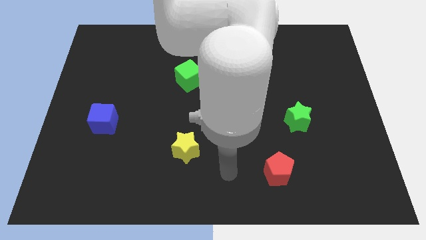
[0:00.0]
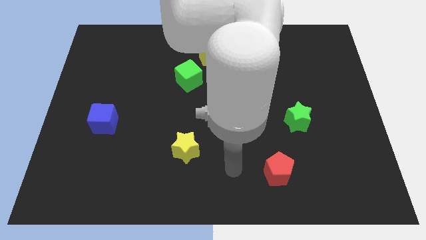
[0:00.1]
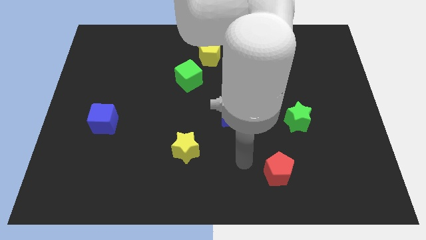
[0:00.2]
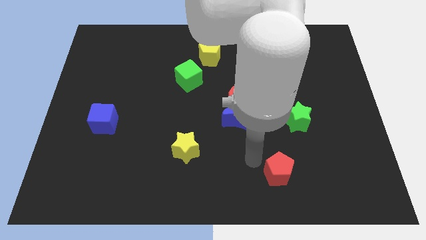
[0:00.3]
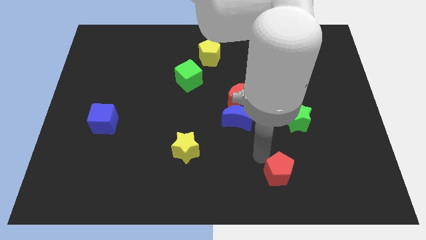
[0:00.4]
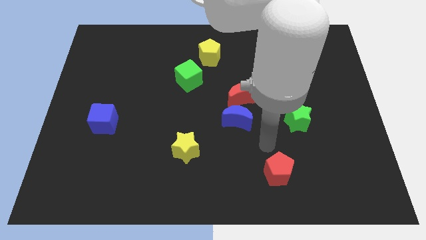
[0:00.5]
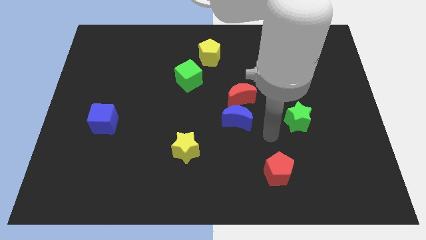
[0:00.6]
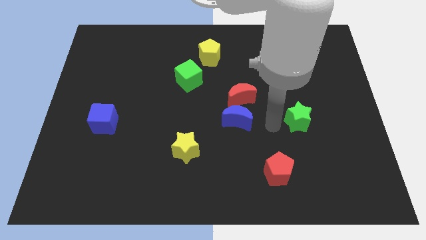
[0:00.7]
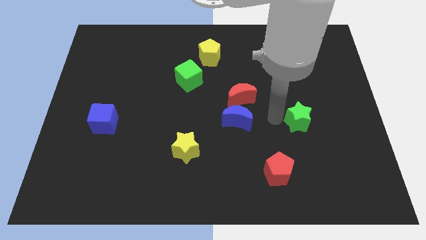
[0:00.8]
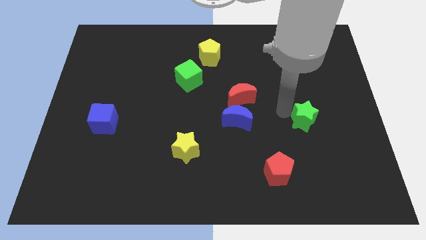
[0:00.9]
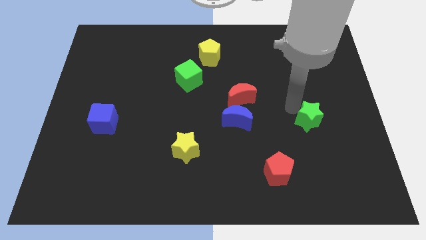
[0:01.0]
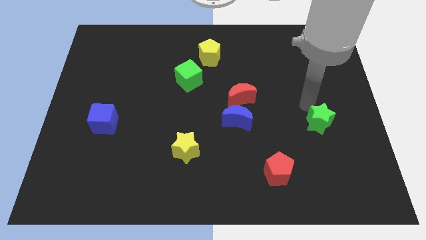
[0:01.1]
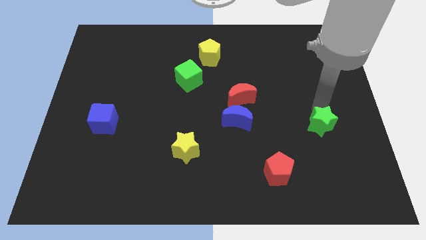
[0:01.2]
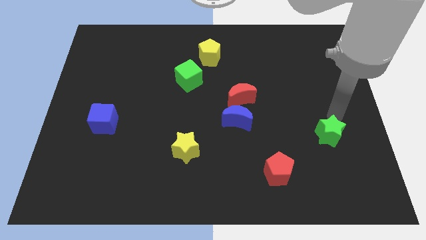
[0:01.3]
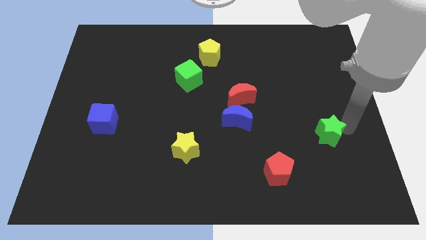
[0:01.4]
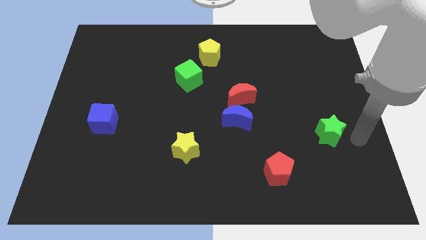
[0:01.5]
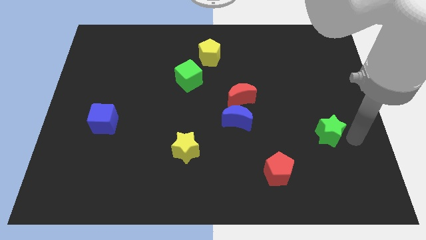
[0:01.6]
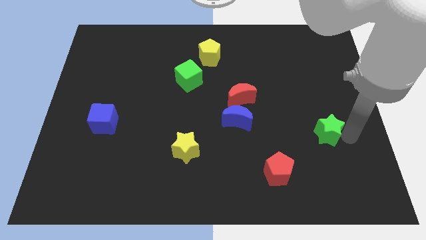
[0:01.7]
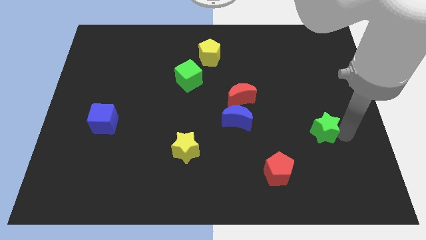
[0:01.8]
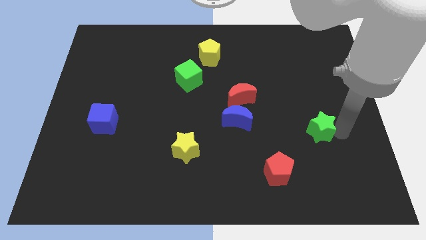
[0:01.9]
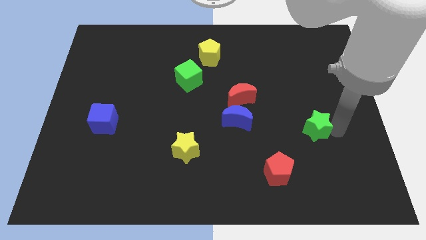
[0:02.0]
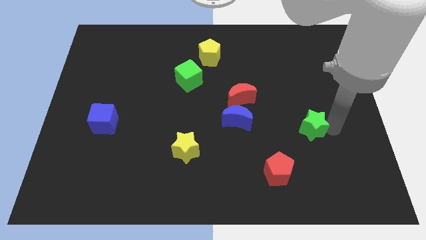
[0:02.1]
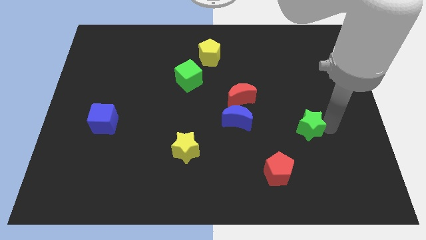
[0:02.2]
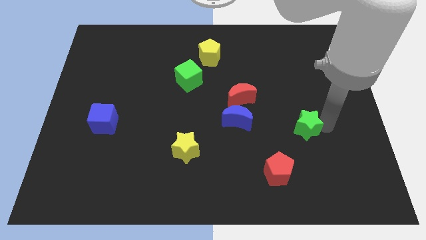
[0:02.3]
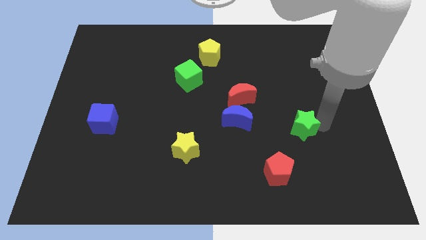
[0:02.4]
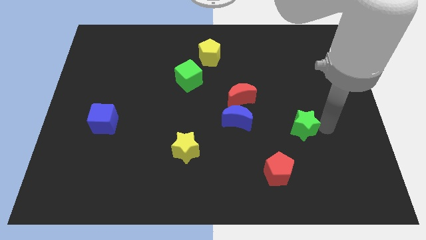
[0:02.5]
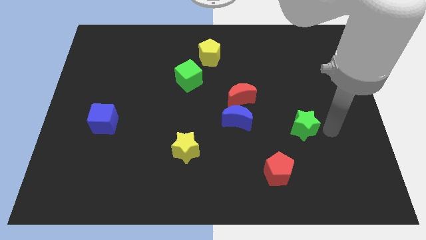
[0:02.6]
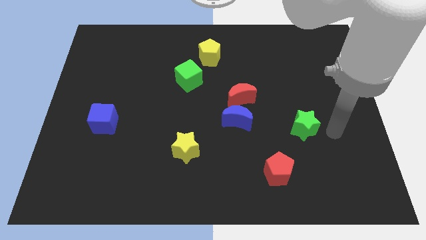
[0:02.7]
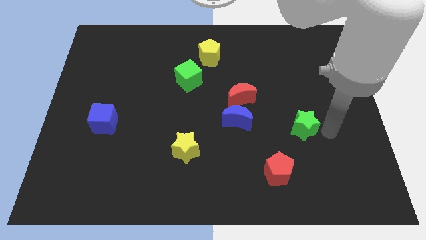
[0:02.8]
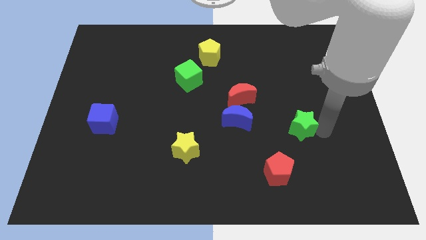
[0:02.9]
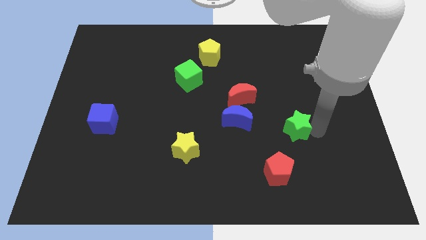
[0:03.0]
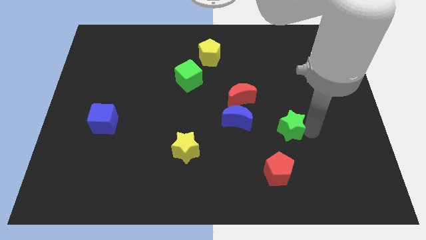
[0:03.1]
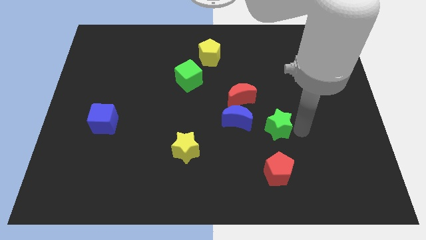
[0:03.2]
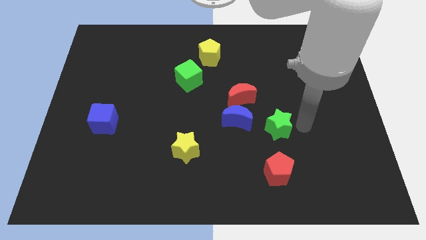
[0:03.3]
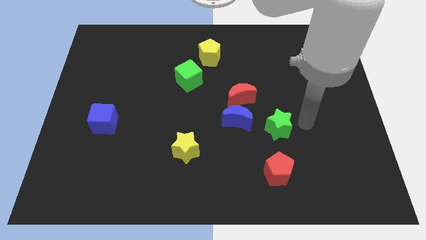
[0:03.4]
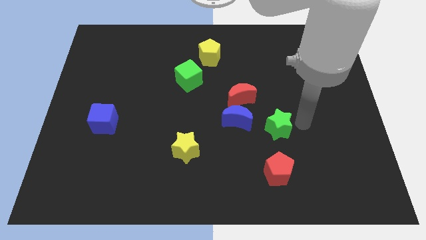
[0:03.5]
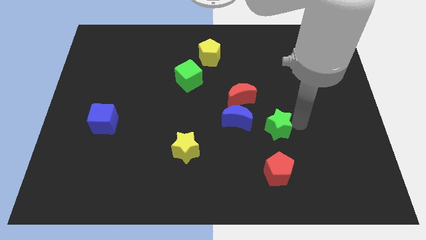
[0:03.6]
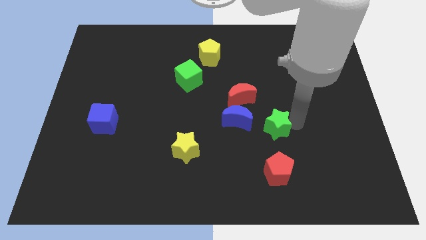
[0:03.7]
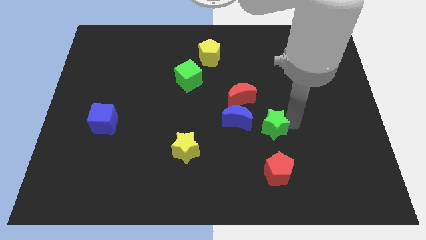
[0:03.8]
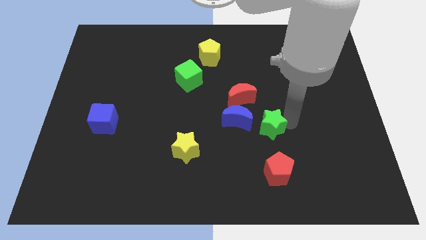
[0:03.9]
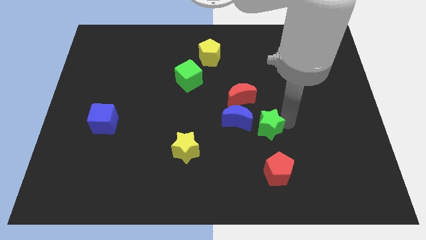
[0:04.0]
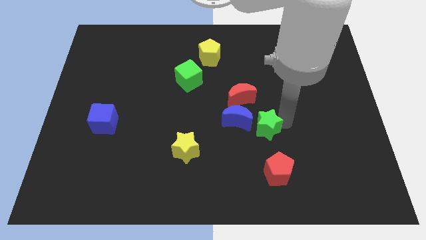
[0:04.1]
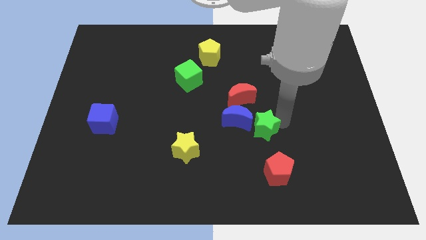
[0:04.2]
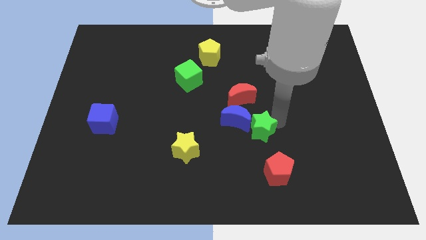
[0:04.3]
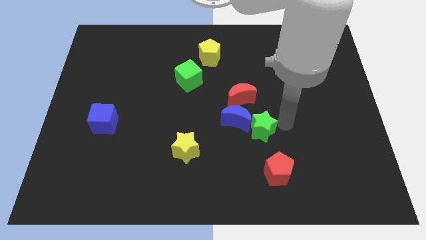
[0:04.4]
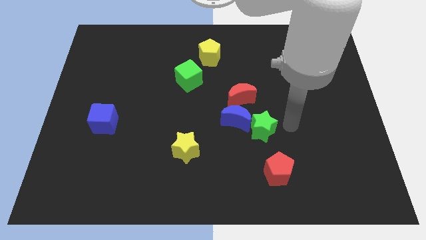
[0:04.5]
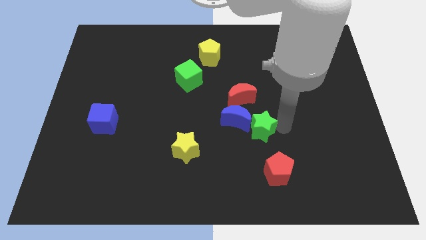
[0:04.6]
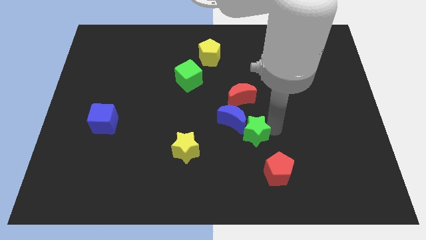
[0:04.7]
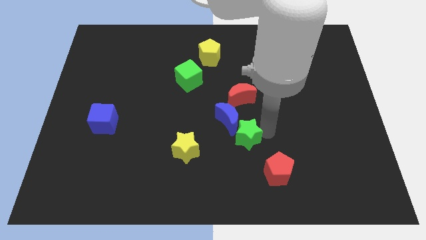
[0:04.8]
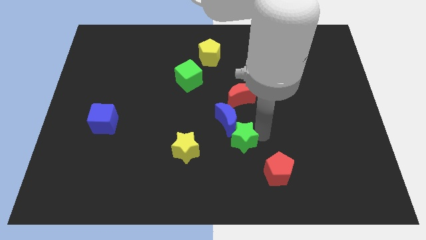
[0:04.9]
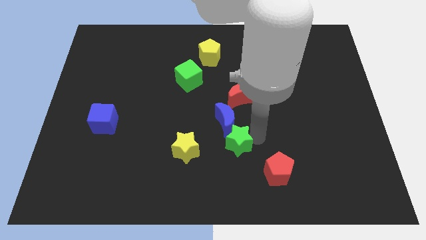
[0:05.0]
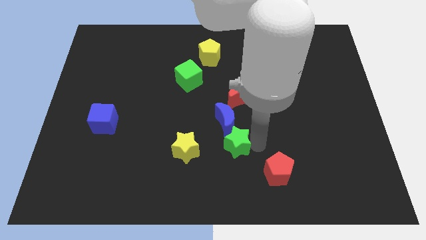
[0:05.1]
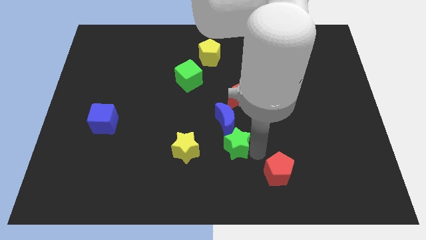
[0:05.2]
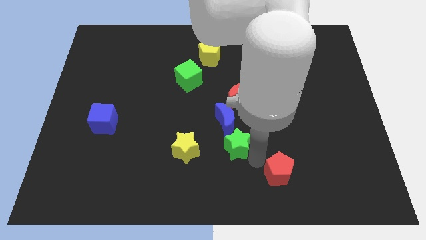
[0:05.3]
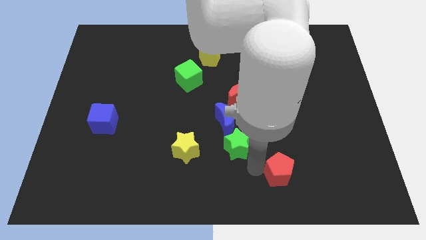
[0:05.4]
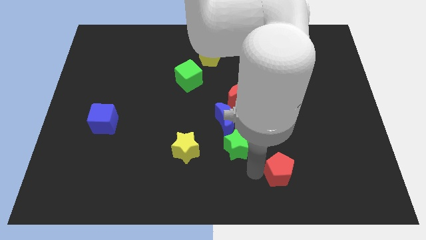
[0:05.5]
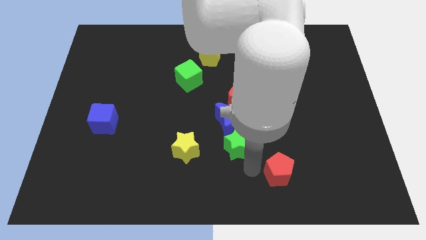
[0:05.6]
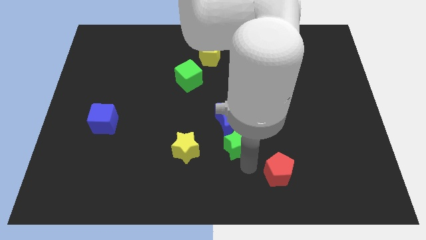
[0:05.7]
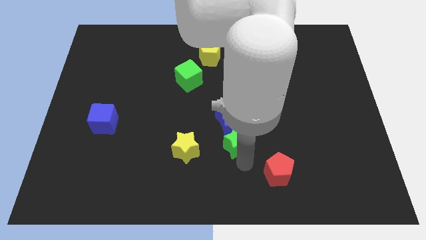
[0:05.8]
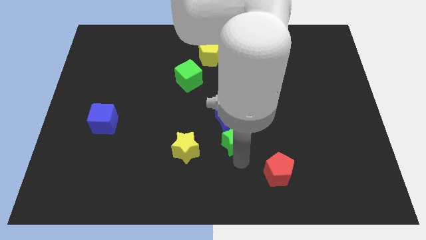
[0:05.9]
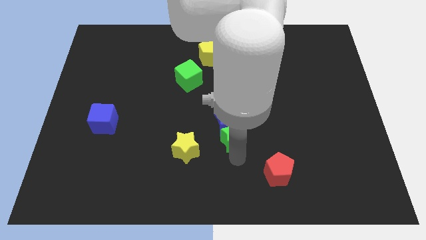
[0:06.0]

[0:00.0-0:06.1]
slide the green star to the center
